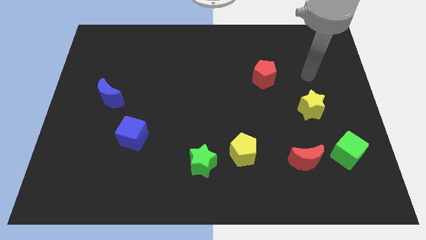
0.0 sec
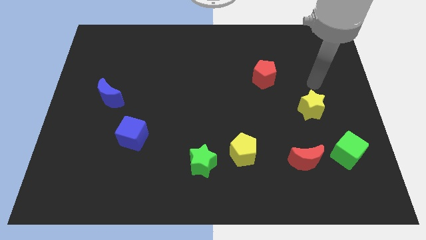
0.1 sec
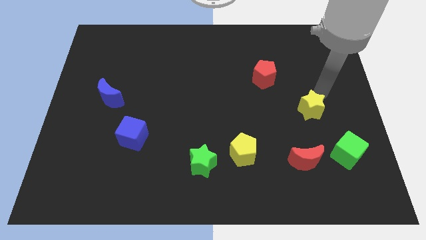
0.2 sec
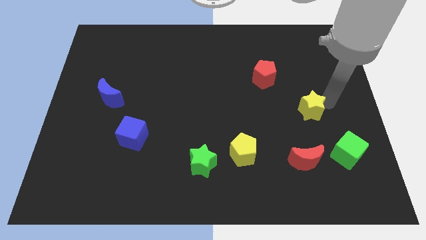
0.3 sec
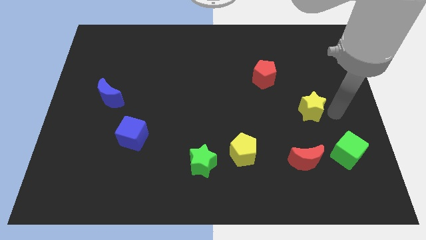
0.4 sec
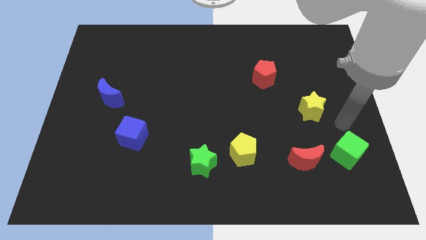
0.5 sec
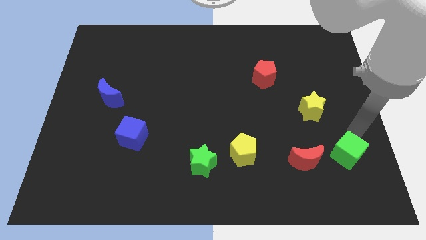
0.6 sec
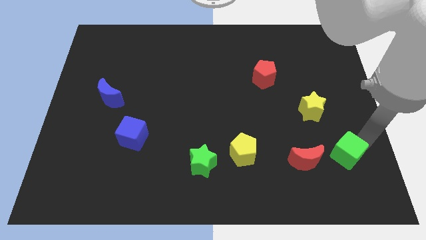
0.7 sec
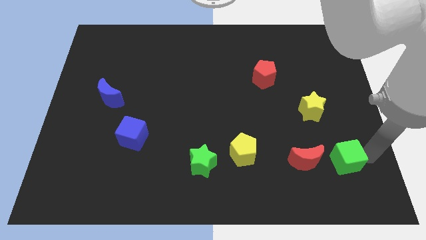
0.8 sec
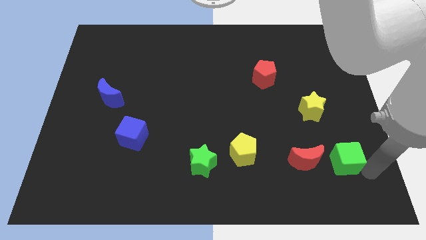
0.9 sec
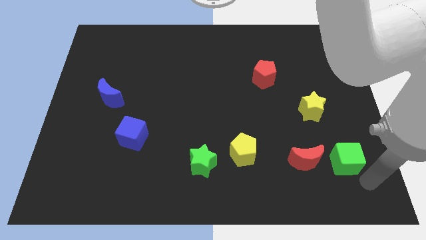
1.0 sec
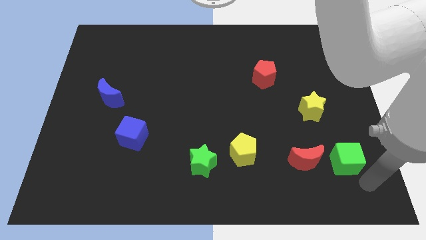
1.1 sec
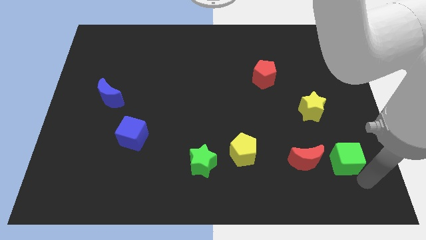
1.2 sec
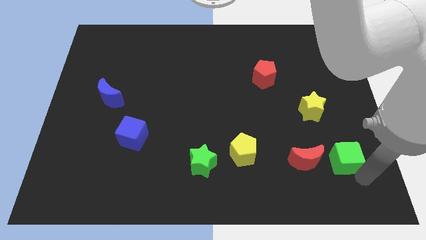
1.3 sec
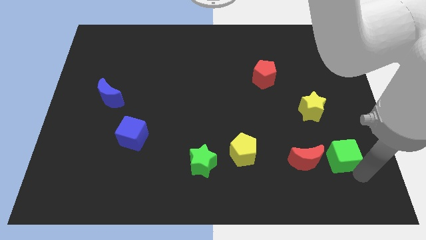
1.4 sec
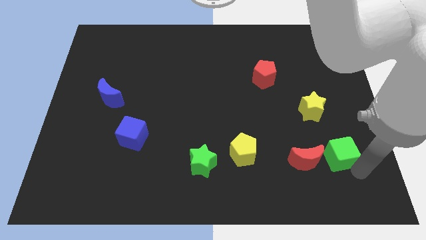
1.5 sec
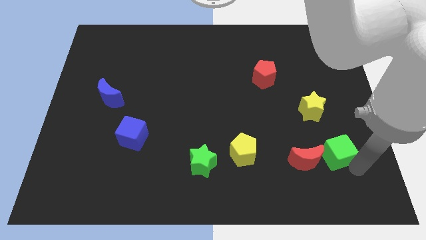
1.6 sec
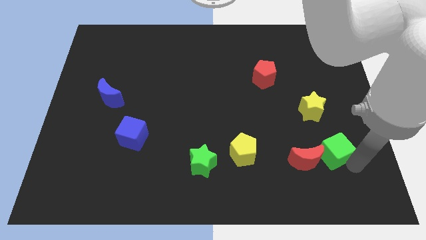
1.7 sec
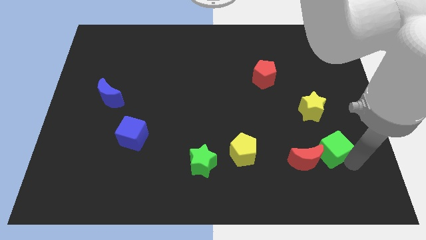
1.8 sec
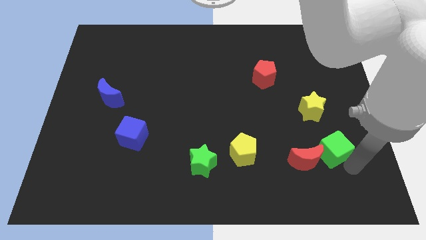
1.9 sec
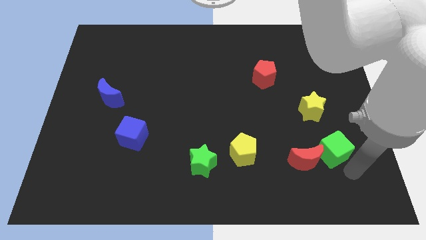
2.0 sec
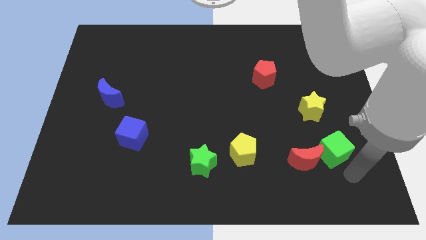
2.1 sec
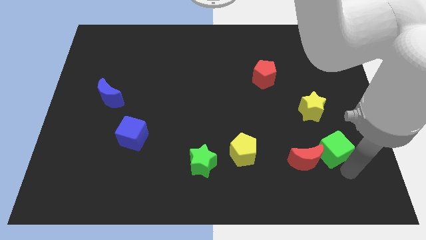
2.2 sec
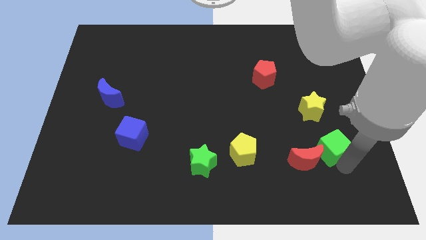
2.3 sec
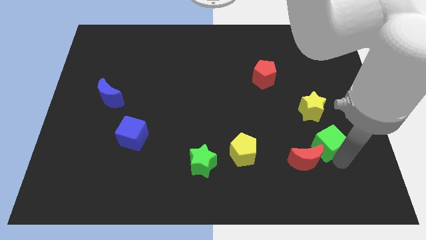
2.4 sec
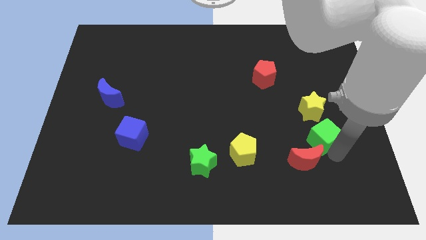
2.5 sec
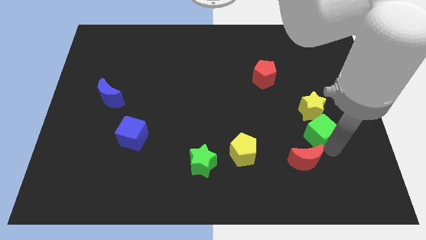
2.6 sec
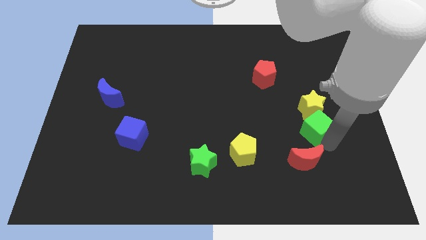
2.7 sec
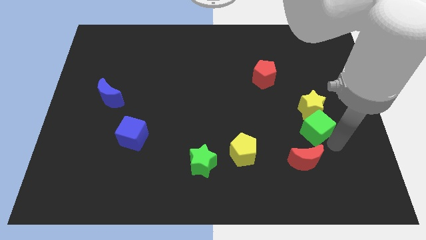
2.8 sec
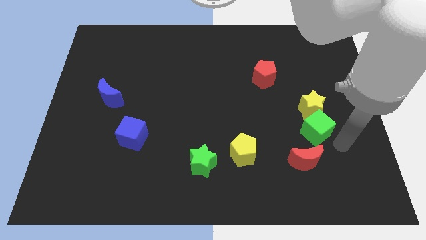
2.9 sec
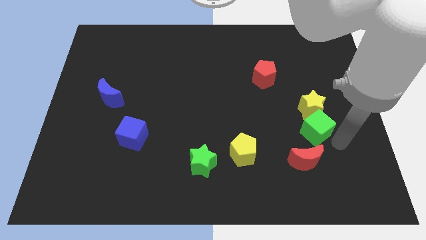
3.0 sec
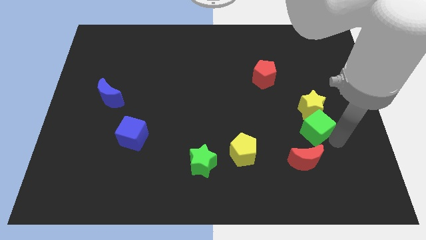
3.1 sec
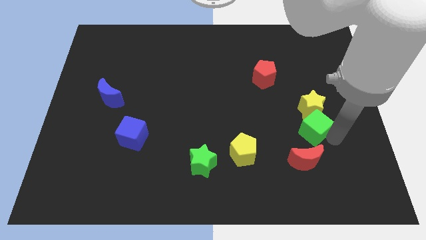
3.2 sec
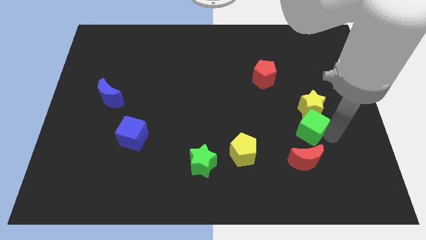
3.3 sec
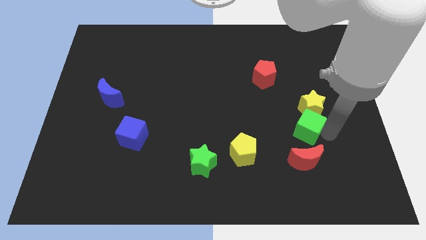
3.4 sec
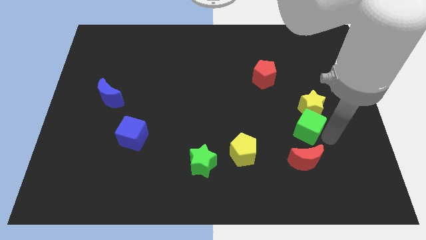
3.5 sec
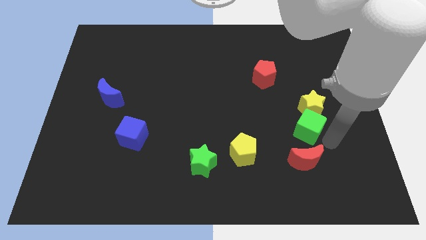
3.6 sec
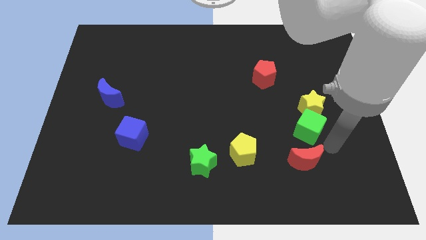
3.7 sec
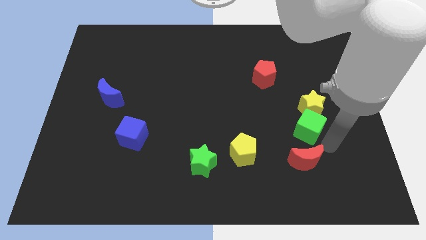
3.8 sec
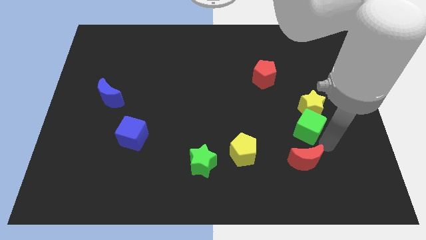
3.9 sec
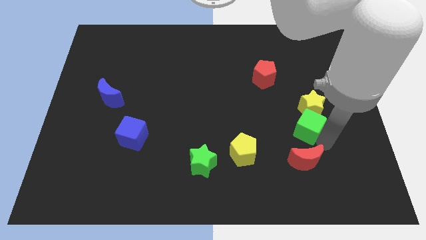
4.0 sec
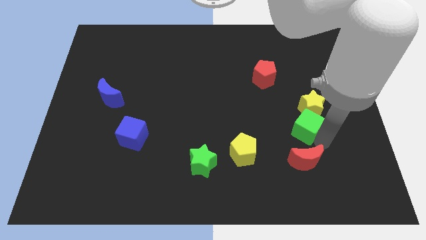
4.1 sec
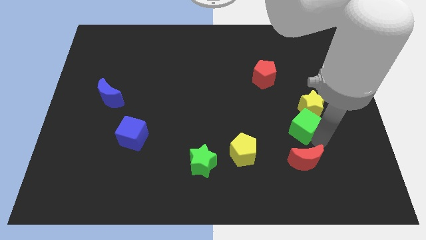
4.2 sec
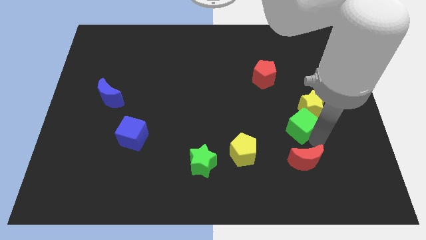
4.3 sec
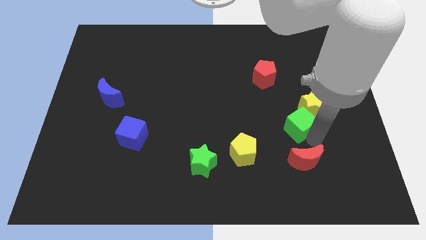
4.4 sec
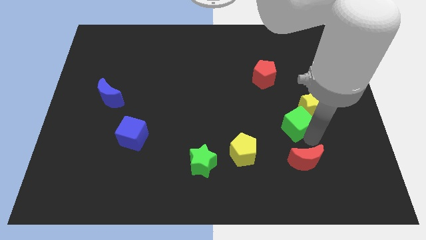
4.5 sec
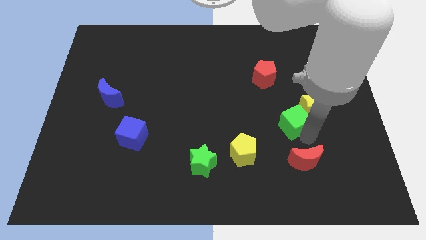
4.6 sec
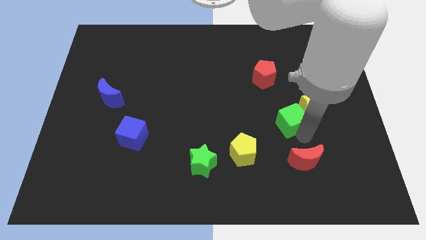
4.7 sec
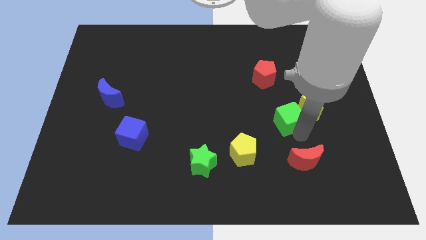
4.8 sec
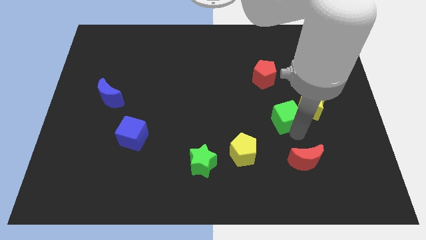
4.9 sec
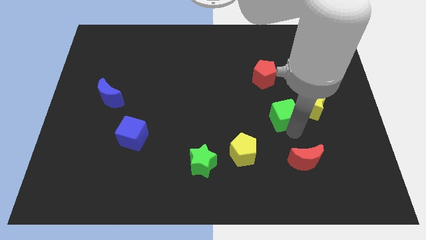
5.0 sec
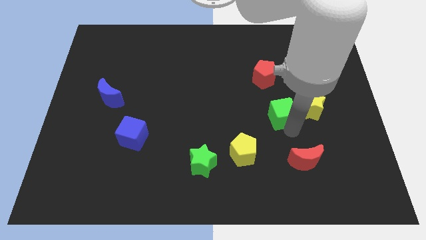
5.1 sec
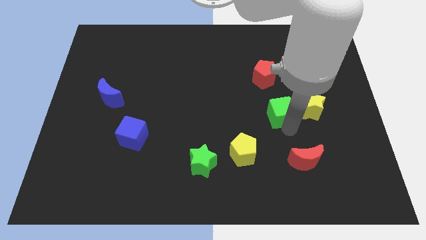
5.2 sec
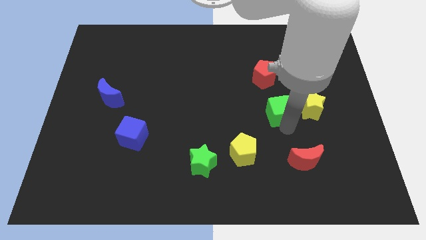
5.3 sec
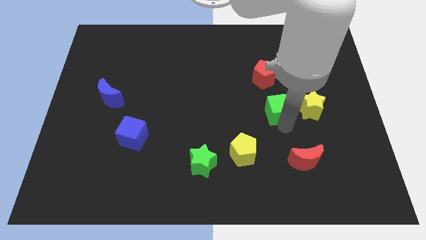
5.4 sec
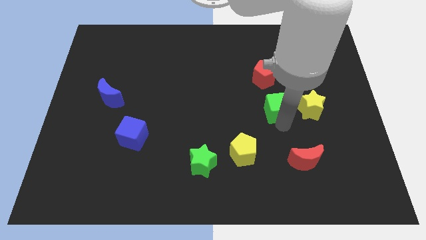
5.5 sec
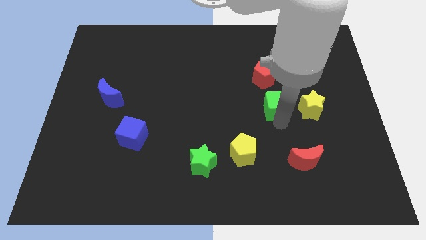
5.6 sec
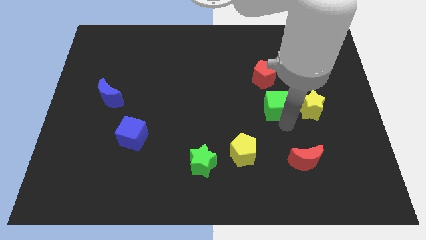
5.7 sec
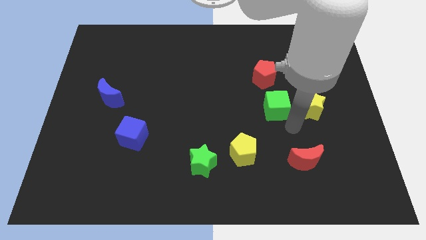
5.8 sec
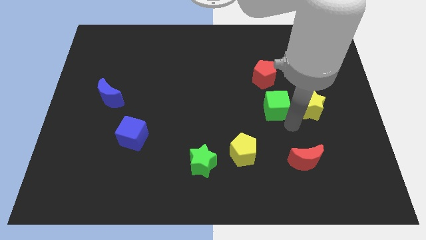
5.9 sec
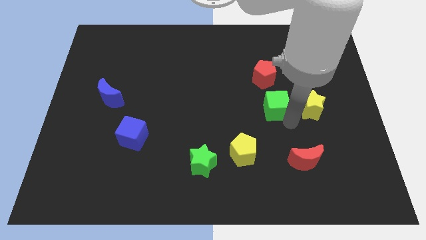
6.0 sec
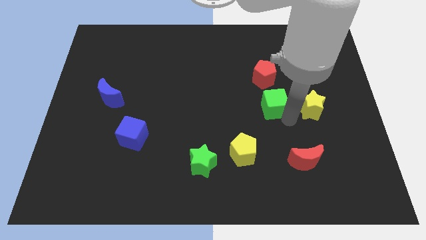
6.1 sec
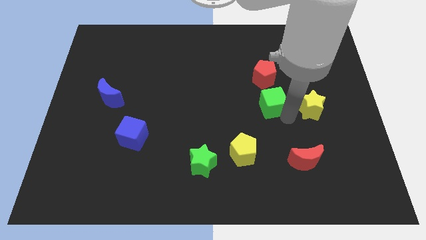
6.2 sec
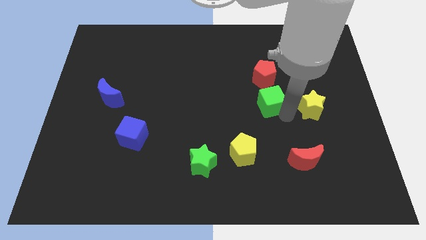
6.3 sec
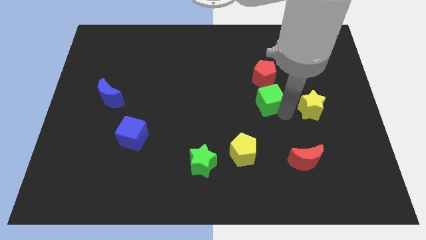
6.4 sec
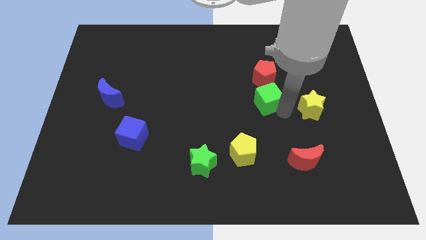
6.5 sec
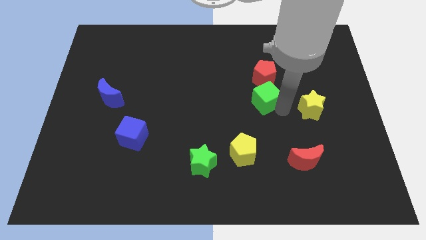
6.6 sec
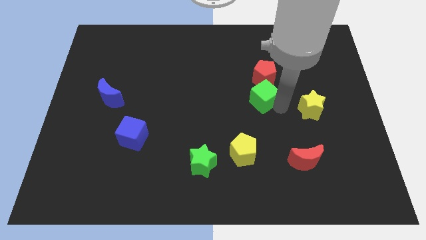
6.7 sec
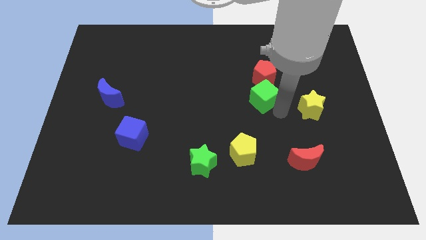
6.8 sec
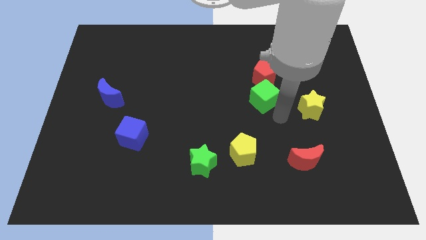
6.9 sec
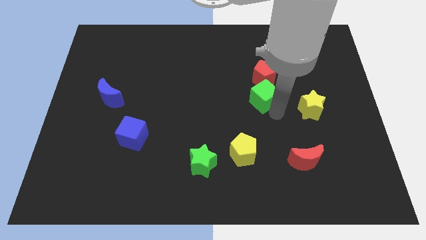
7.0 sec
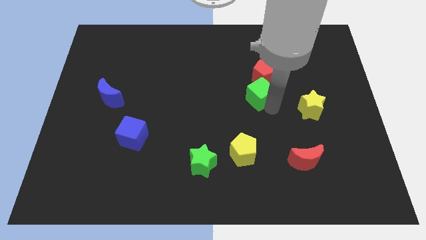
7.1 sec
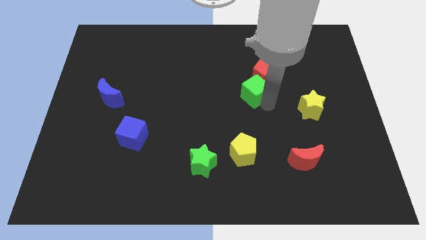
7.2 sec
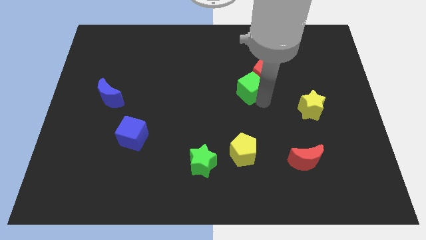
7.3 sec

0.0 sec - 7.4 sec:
move the green cube left of the red pentagon
